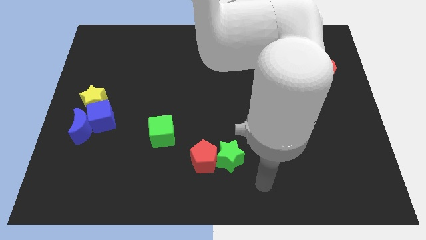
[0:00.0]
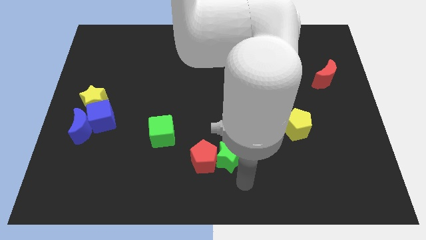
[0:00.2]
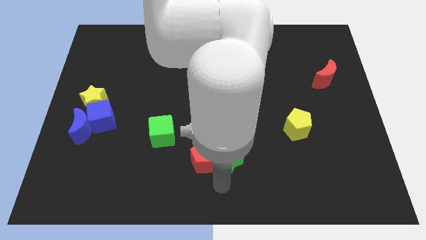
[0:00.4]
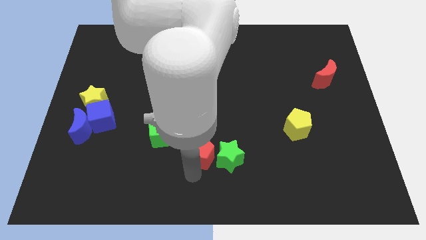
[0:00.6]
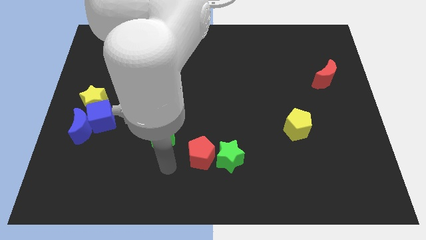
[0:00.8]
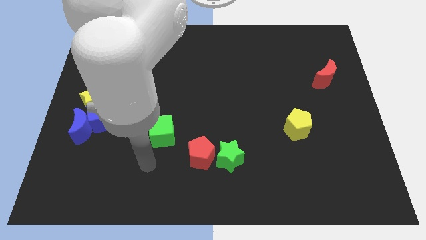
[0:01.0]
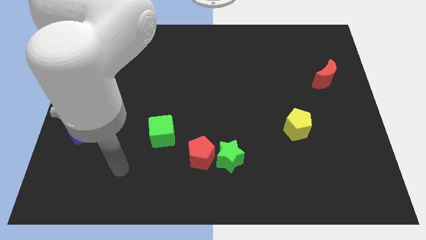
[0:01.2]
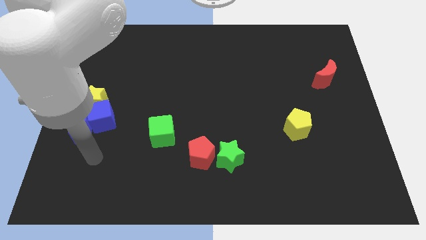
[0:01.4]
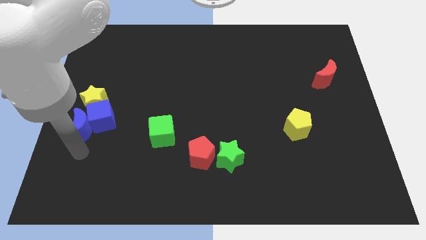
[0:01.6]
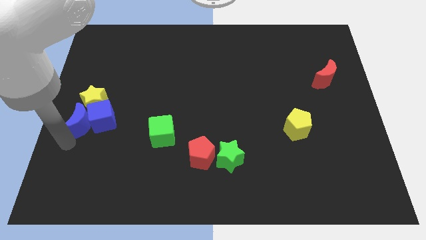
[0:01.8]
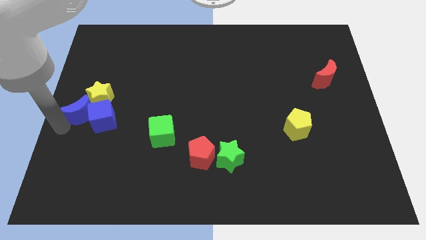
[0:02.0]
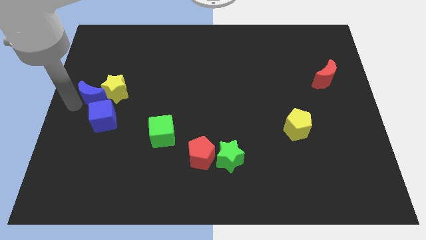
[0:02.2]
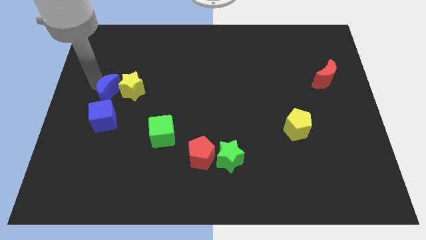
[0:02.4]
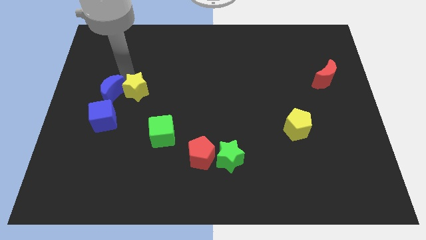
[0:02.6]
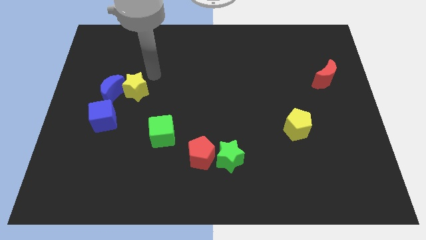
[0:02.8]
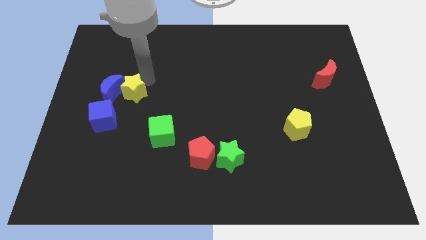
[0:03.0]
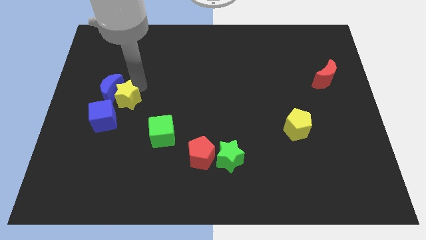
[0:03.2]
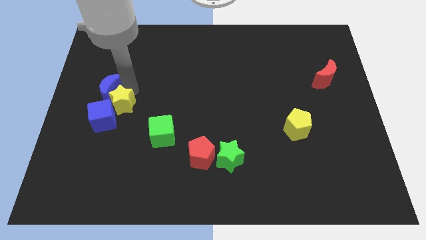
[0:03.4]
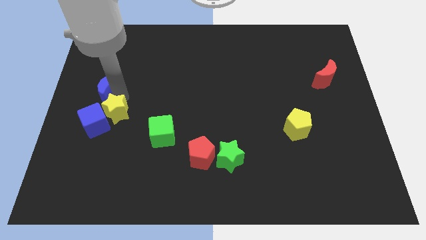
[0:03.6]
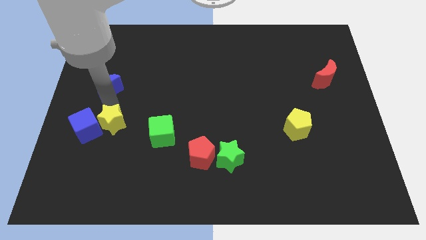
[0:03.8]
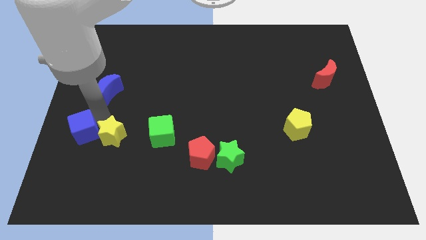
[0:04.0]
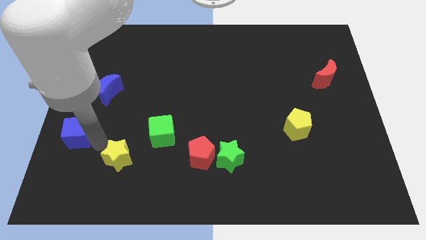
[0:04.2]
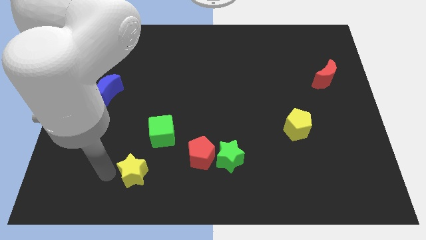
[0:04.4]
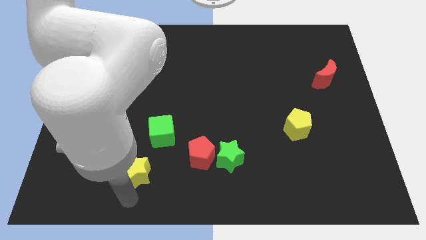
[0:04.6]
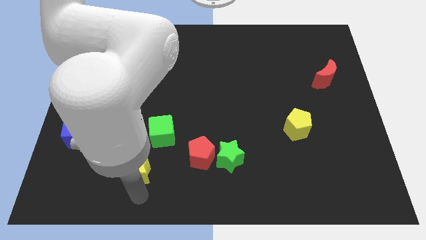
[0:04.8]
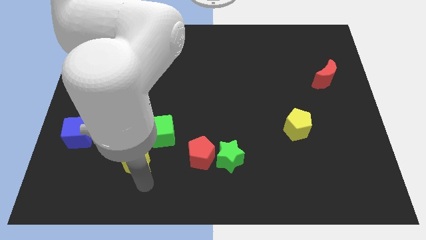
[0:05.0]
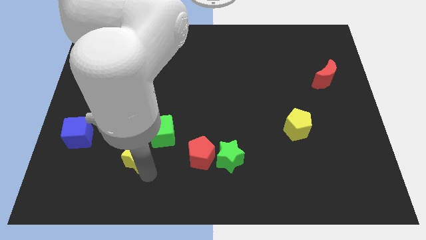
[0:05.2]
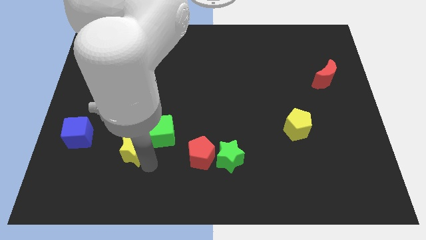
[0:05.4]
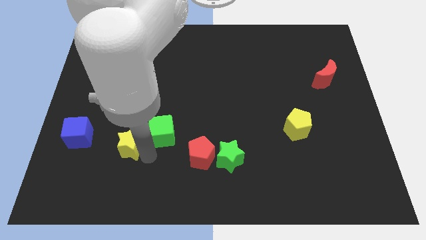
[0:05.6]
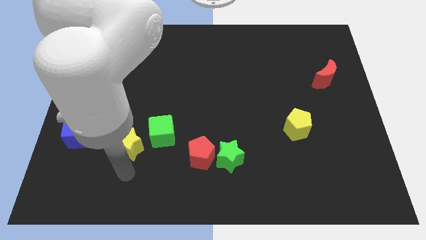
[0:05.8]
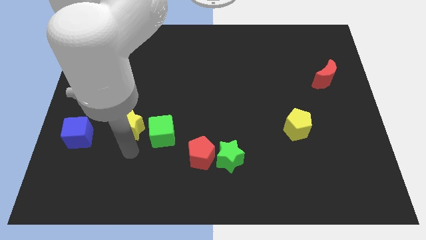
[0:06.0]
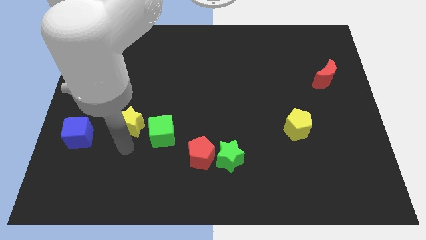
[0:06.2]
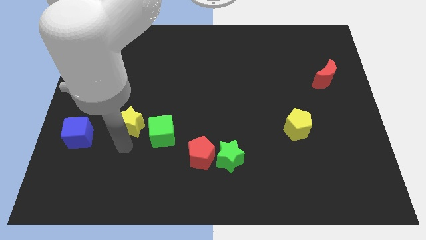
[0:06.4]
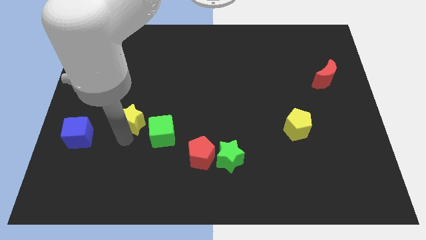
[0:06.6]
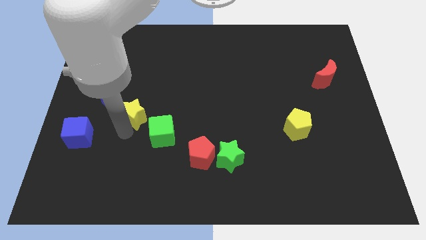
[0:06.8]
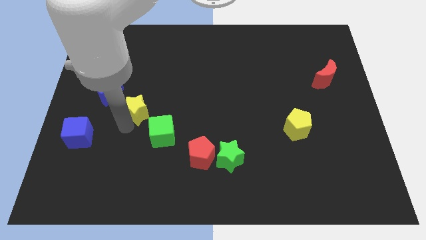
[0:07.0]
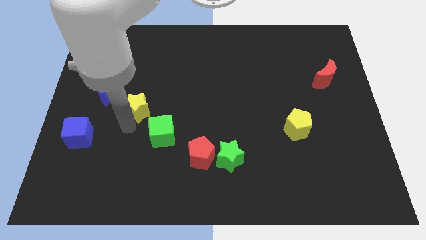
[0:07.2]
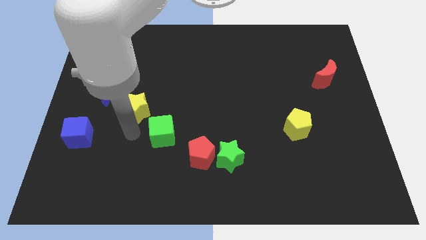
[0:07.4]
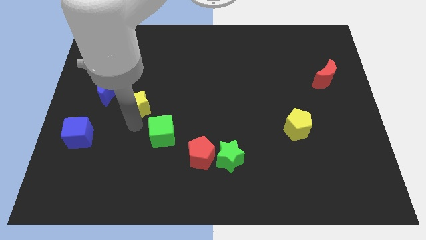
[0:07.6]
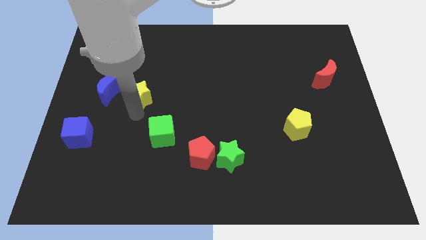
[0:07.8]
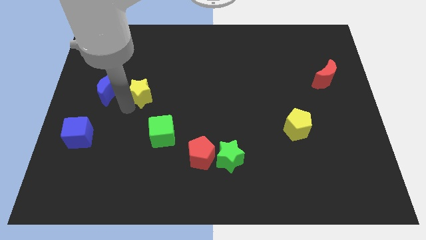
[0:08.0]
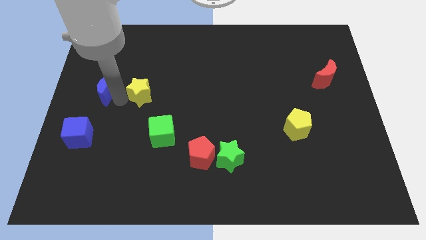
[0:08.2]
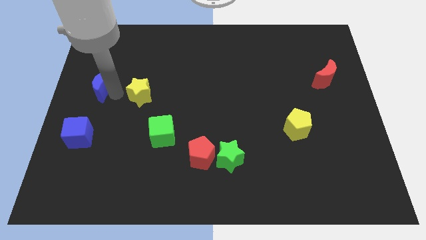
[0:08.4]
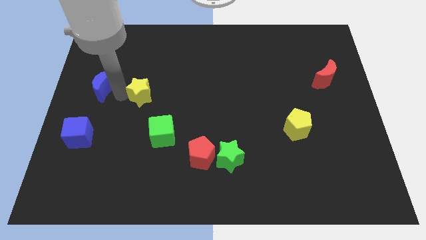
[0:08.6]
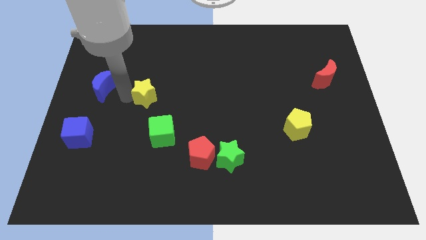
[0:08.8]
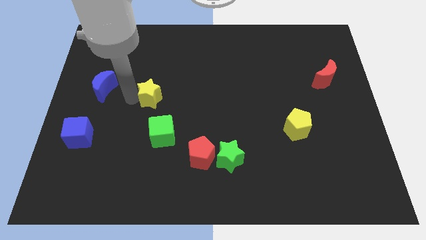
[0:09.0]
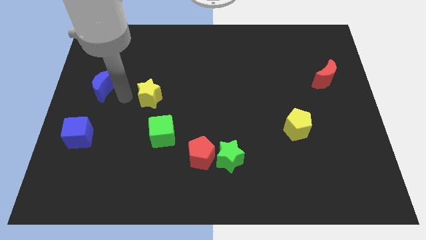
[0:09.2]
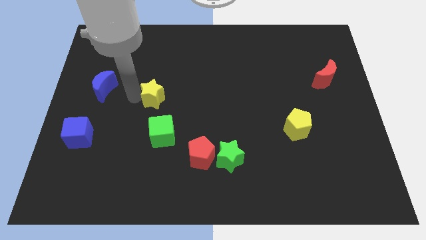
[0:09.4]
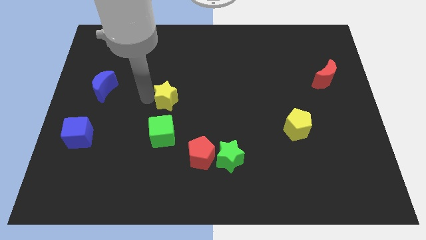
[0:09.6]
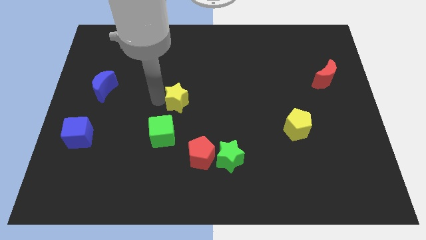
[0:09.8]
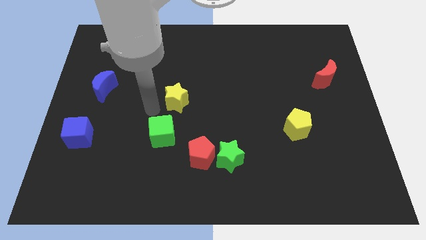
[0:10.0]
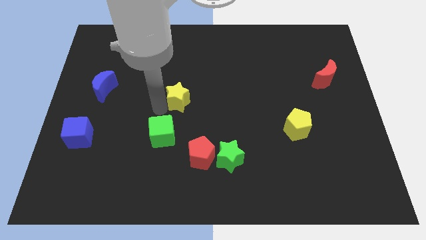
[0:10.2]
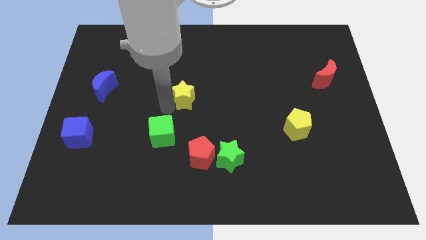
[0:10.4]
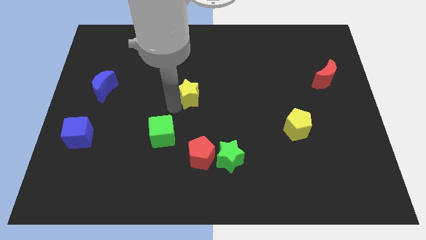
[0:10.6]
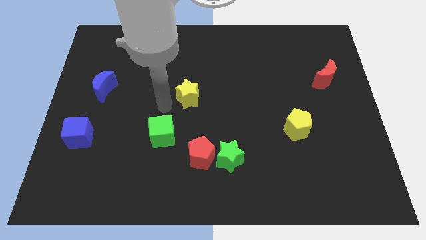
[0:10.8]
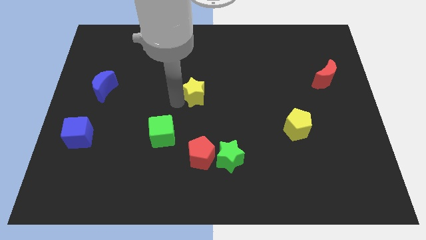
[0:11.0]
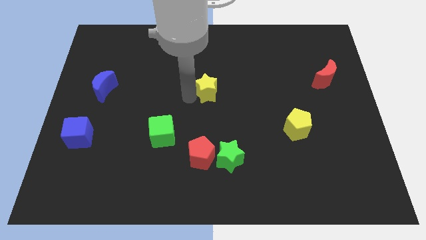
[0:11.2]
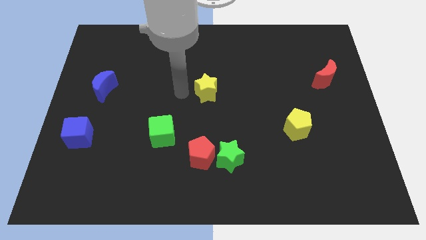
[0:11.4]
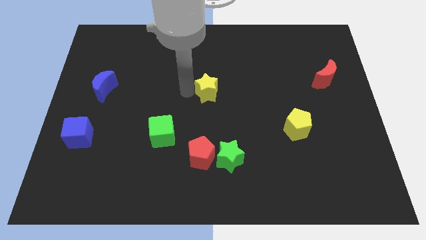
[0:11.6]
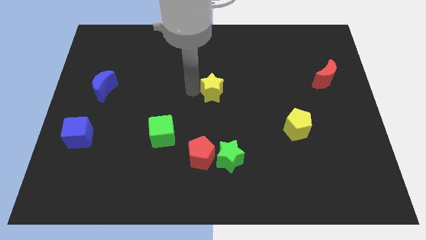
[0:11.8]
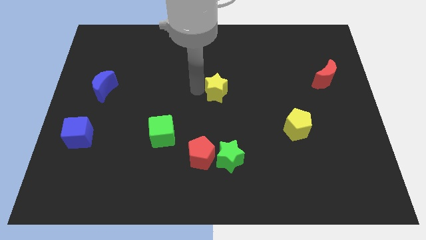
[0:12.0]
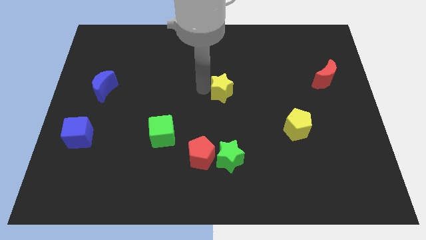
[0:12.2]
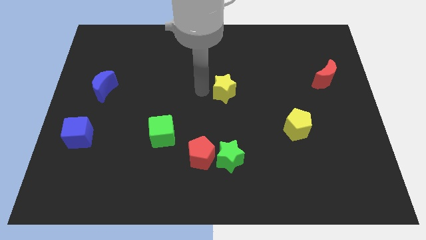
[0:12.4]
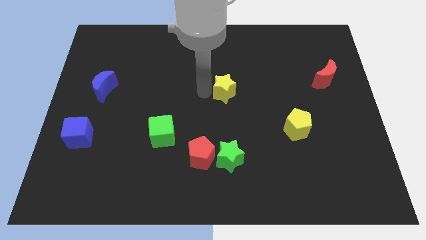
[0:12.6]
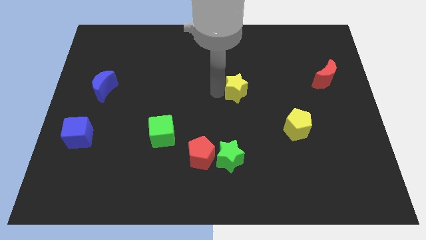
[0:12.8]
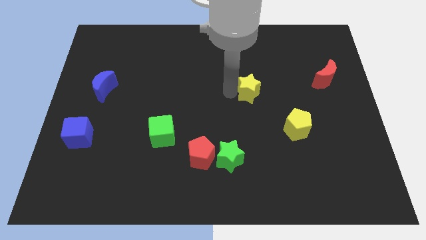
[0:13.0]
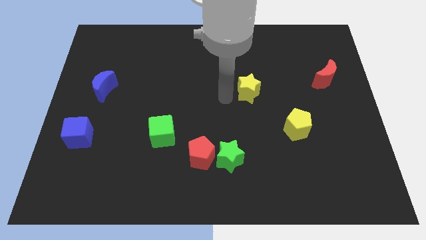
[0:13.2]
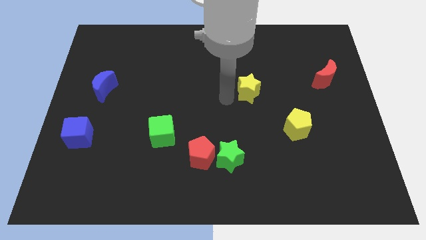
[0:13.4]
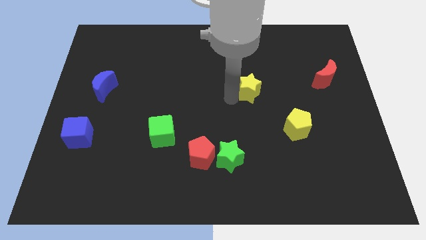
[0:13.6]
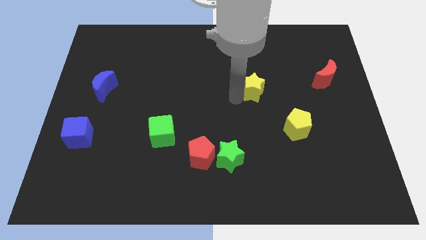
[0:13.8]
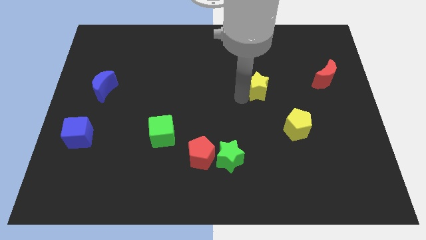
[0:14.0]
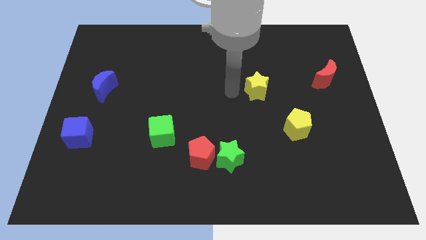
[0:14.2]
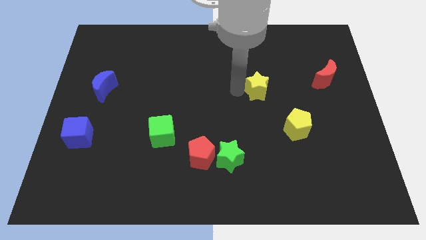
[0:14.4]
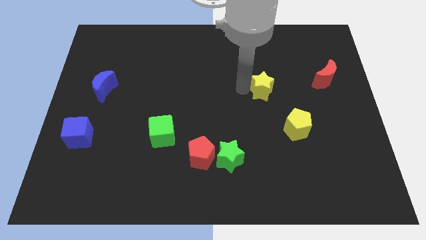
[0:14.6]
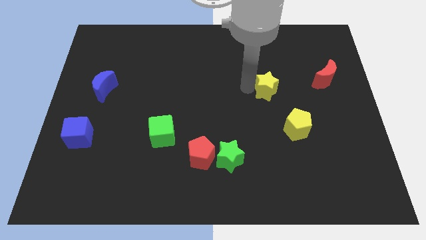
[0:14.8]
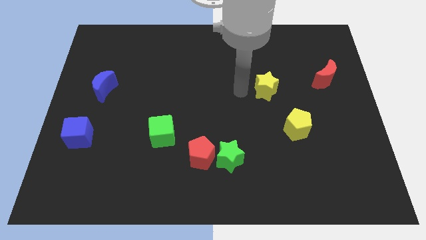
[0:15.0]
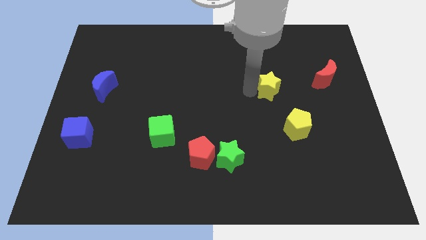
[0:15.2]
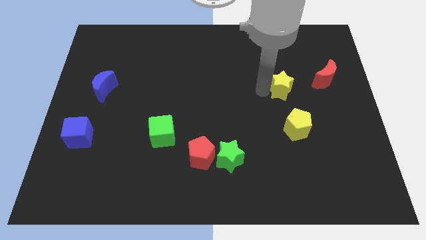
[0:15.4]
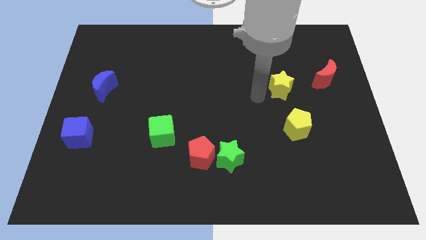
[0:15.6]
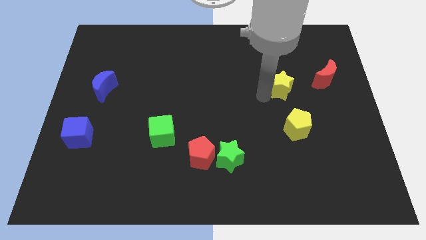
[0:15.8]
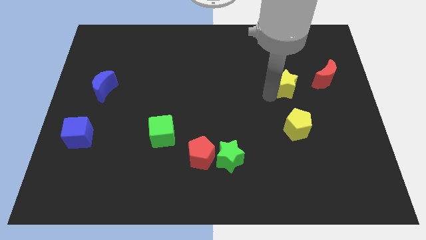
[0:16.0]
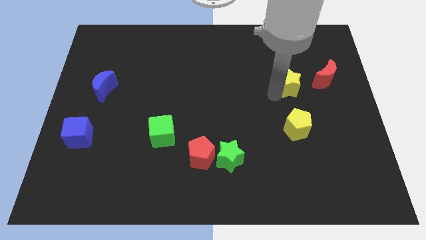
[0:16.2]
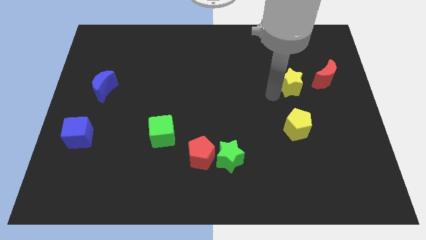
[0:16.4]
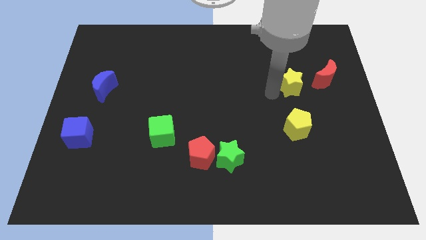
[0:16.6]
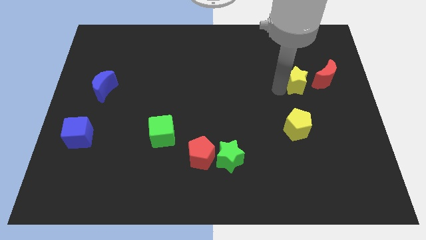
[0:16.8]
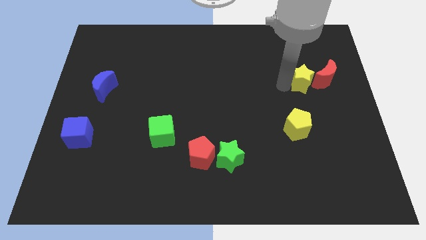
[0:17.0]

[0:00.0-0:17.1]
push the yellow star next to the red moon
